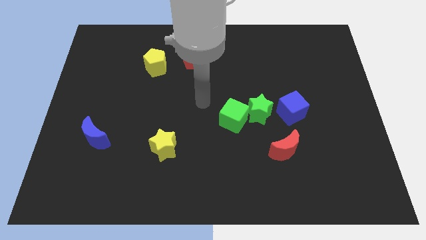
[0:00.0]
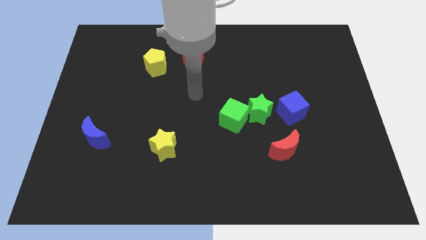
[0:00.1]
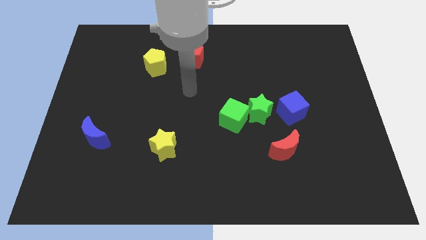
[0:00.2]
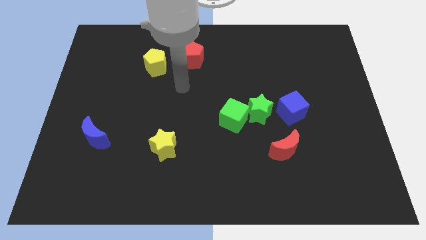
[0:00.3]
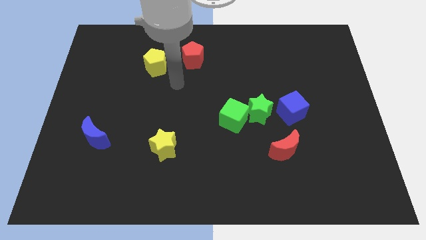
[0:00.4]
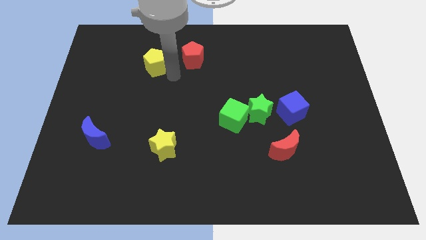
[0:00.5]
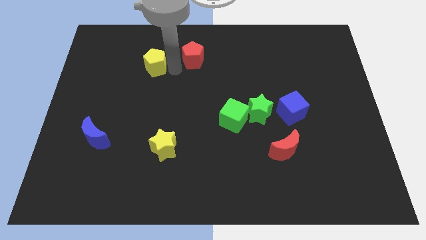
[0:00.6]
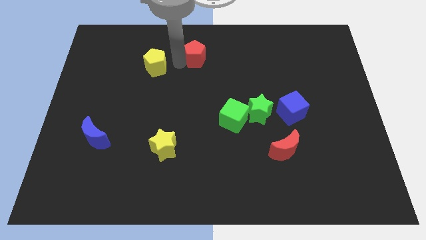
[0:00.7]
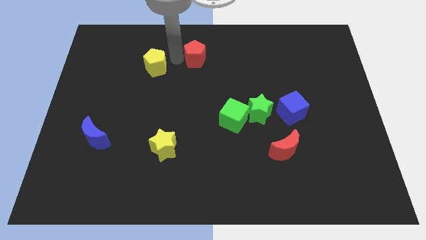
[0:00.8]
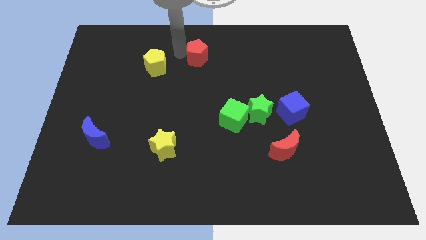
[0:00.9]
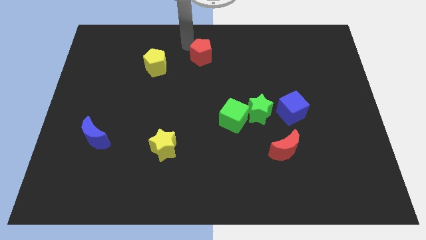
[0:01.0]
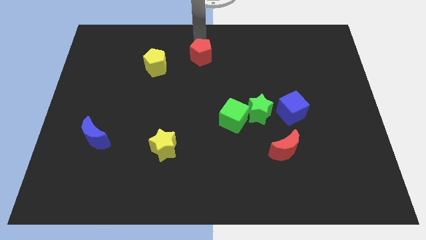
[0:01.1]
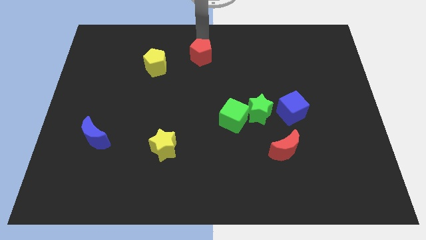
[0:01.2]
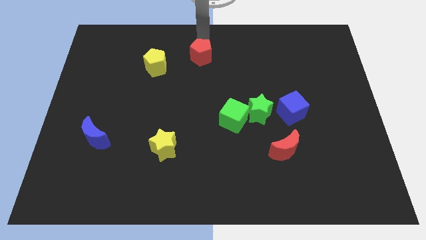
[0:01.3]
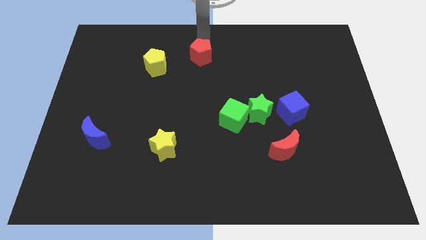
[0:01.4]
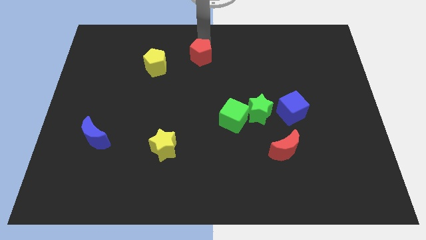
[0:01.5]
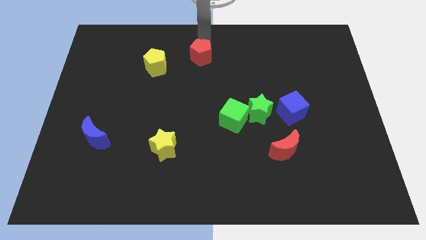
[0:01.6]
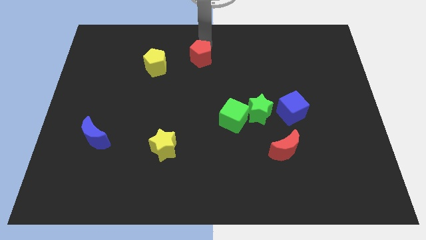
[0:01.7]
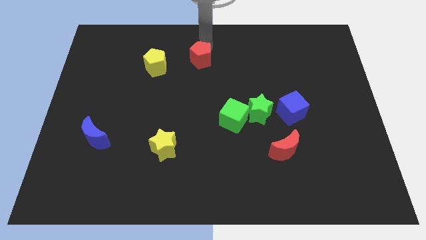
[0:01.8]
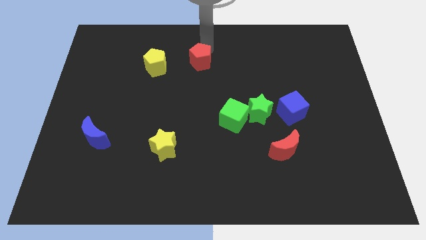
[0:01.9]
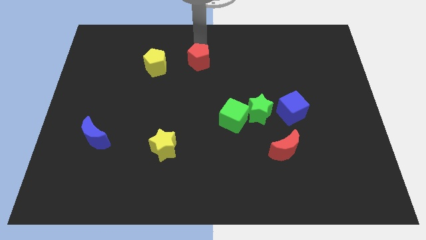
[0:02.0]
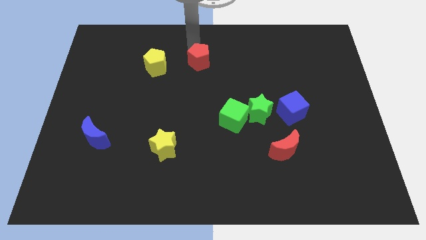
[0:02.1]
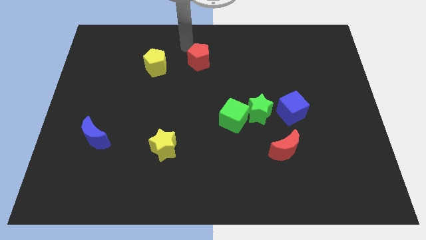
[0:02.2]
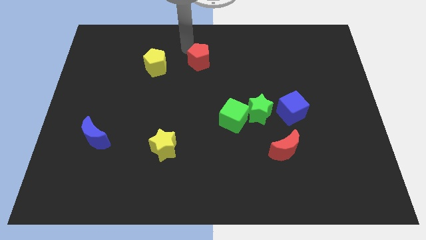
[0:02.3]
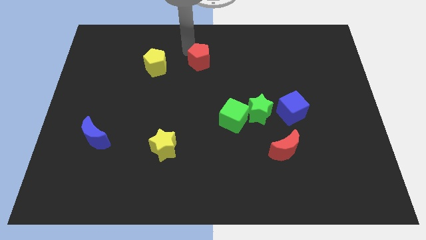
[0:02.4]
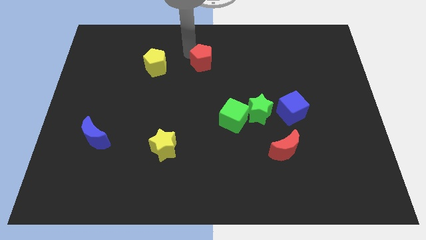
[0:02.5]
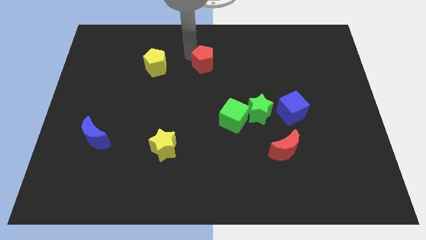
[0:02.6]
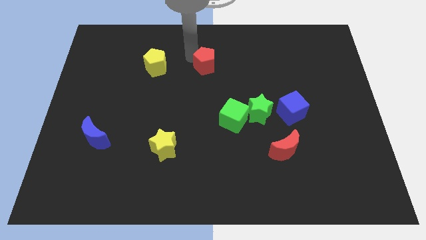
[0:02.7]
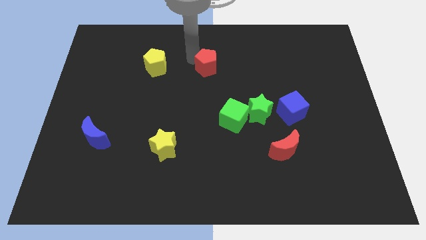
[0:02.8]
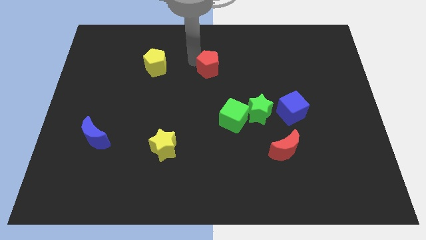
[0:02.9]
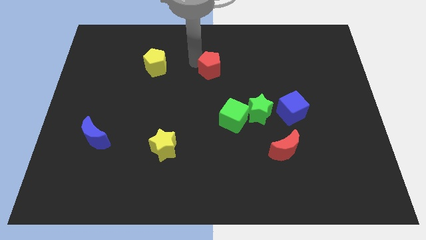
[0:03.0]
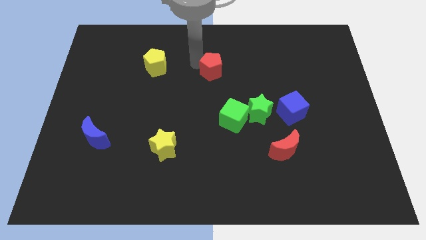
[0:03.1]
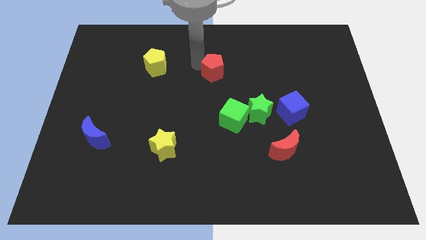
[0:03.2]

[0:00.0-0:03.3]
move the red pentagon a little bit downwards and to the right

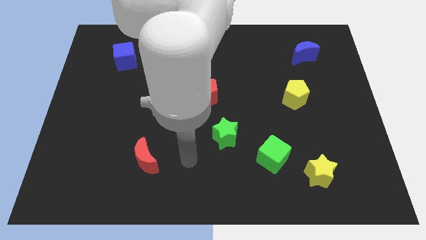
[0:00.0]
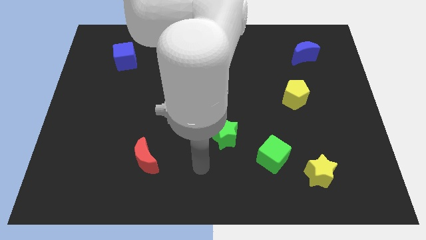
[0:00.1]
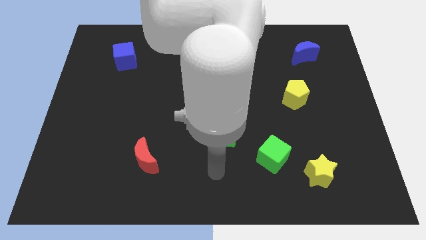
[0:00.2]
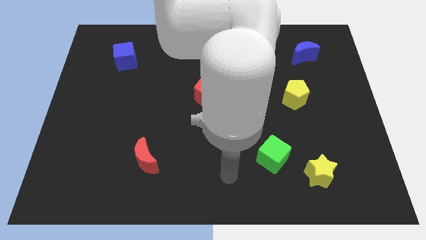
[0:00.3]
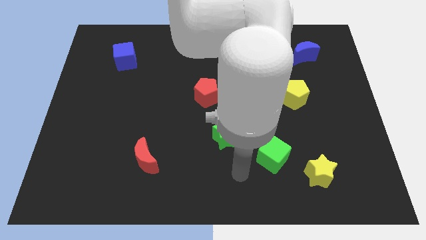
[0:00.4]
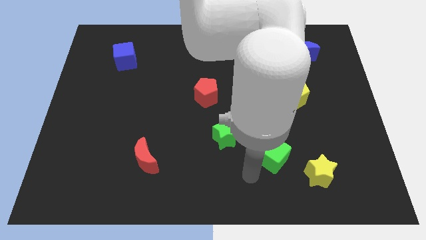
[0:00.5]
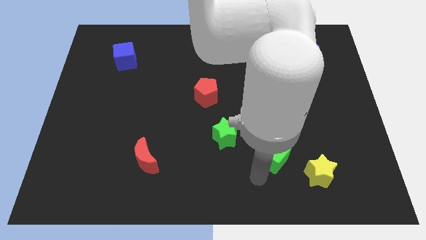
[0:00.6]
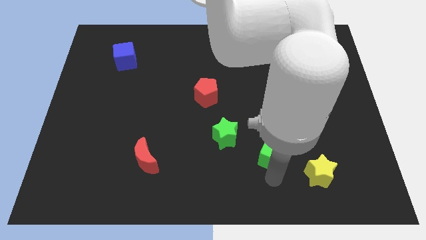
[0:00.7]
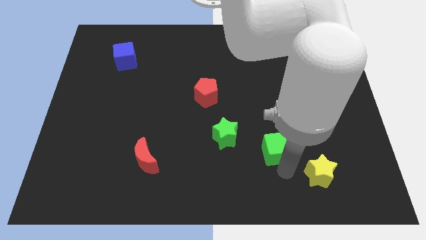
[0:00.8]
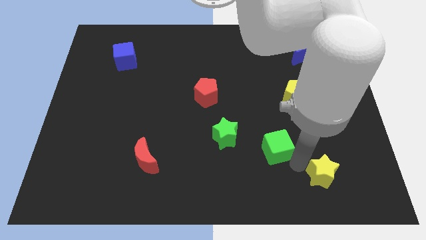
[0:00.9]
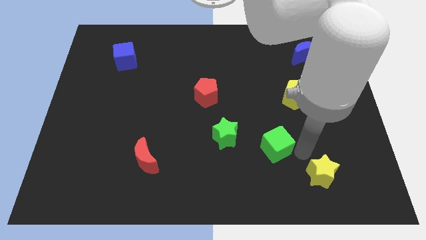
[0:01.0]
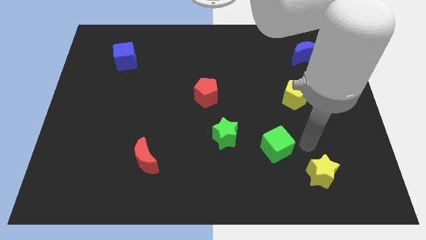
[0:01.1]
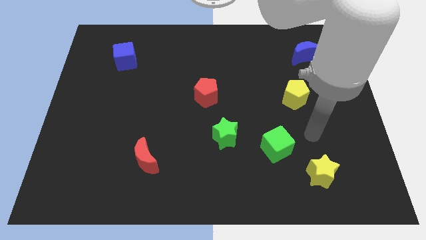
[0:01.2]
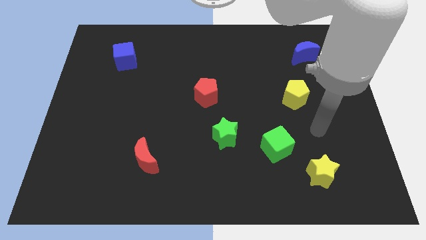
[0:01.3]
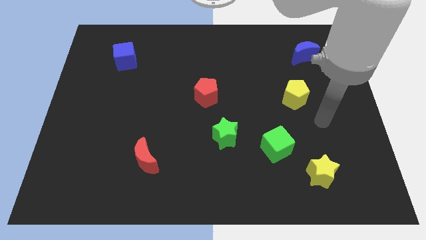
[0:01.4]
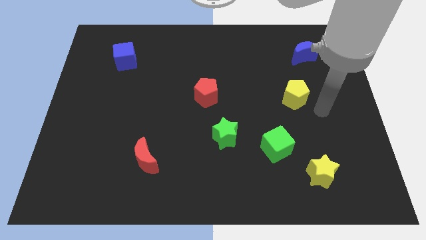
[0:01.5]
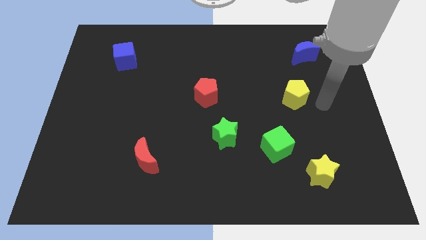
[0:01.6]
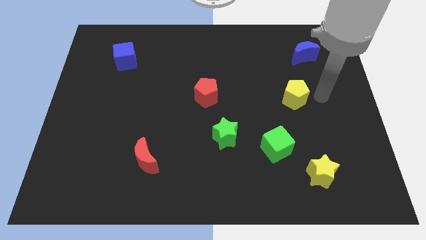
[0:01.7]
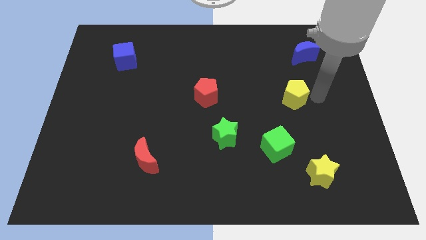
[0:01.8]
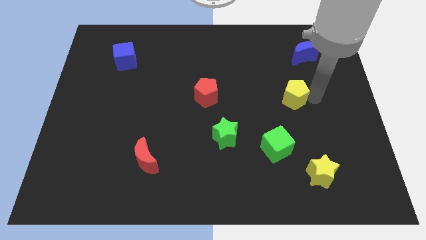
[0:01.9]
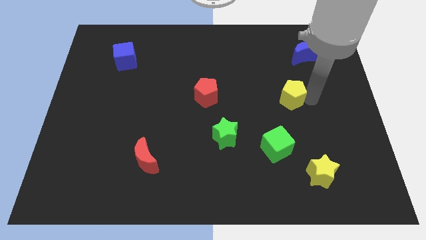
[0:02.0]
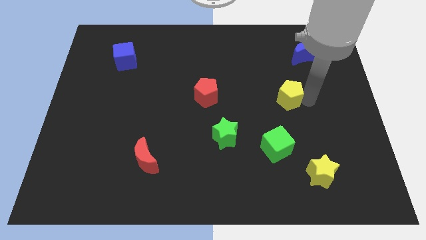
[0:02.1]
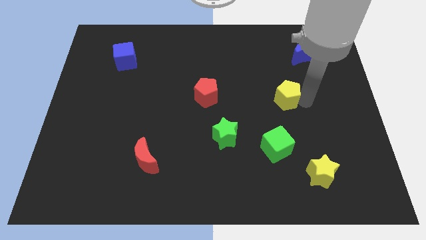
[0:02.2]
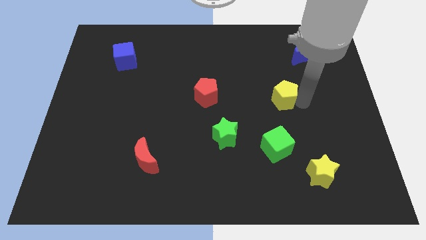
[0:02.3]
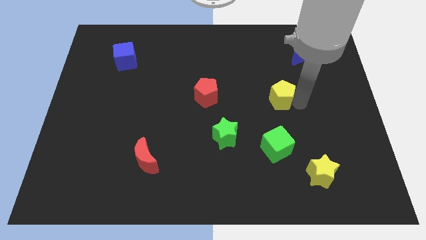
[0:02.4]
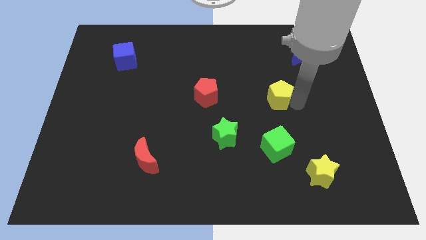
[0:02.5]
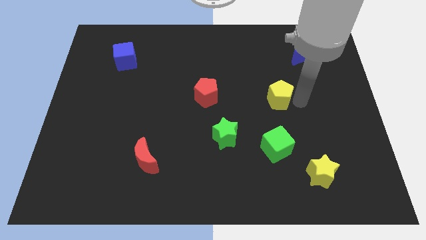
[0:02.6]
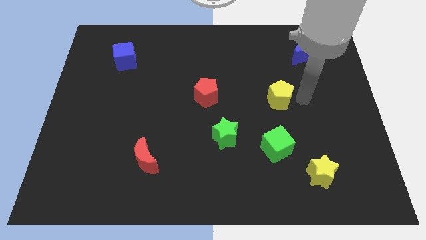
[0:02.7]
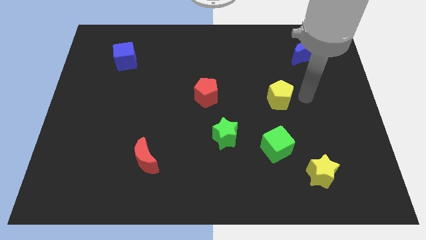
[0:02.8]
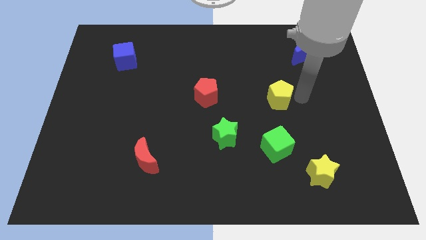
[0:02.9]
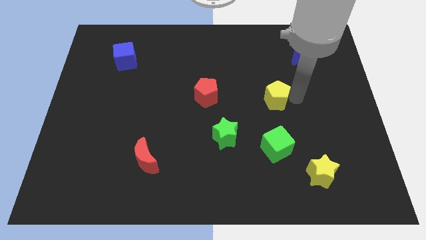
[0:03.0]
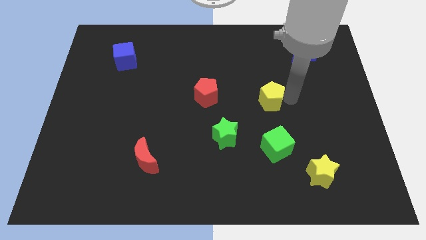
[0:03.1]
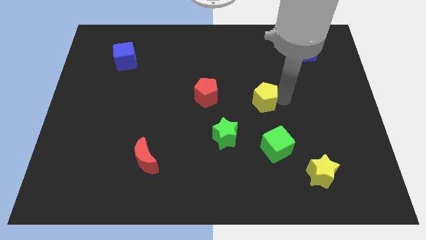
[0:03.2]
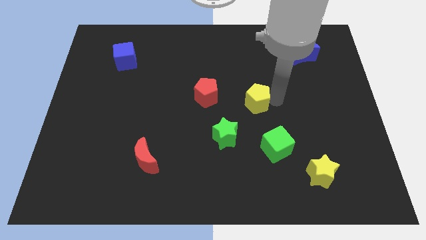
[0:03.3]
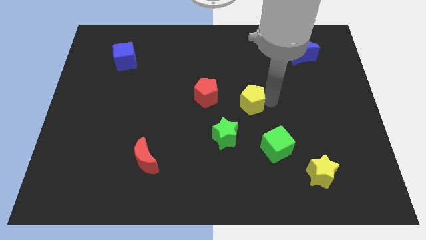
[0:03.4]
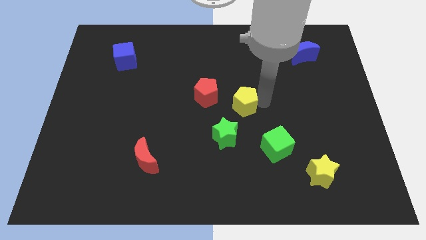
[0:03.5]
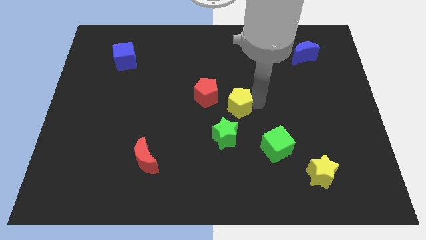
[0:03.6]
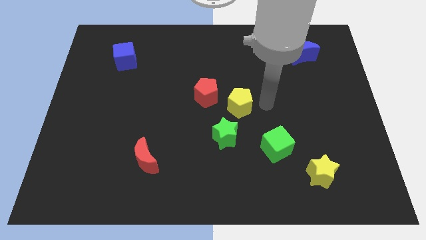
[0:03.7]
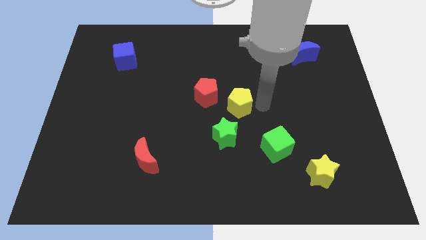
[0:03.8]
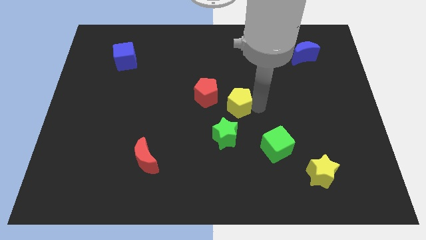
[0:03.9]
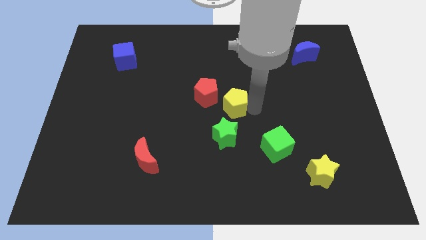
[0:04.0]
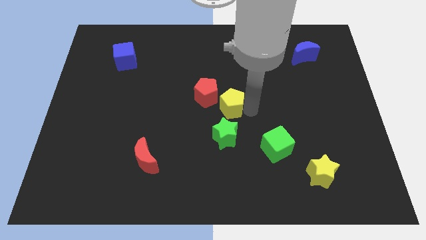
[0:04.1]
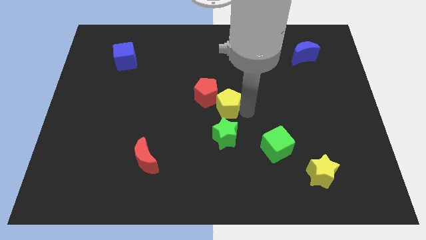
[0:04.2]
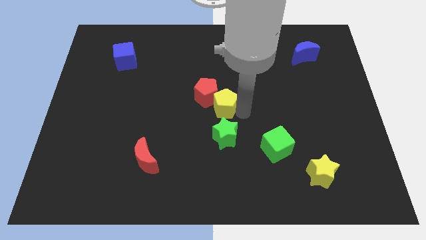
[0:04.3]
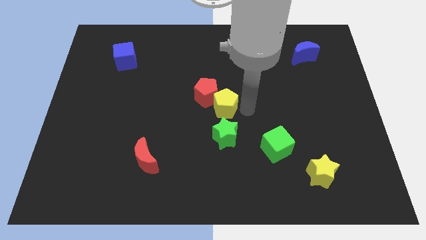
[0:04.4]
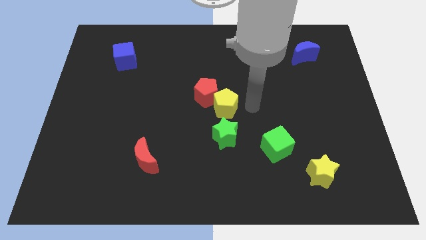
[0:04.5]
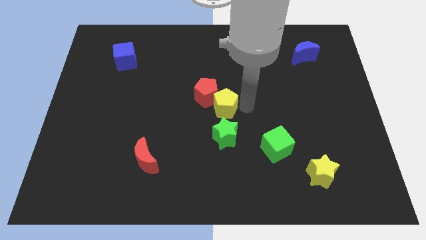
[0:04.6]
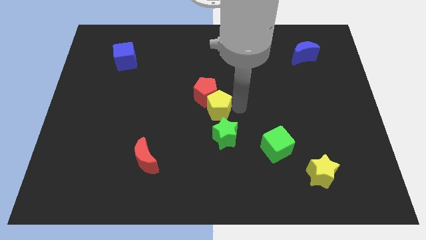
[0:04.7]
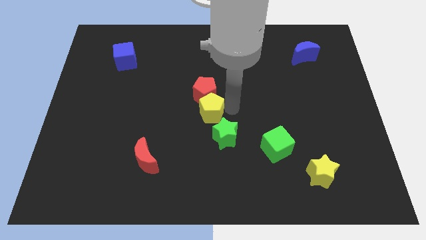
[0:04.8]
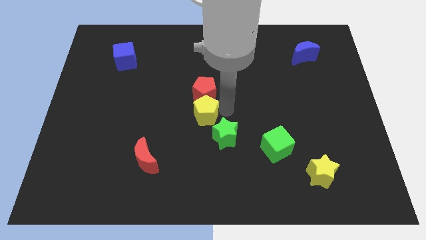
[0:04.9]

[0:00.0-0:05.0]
slide the yellow pentagon to the left
